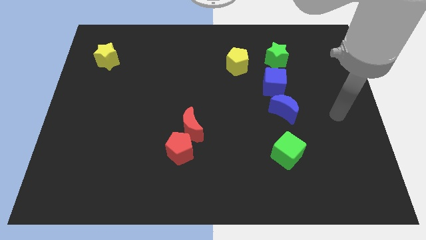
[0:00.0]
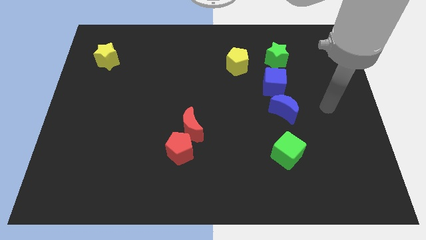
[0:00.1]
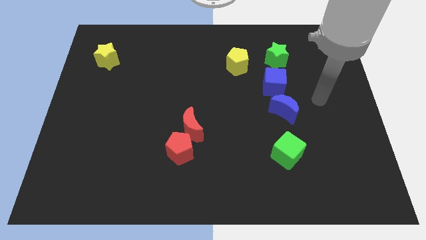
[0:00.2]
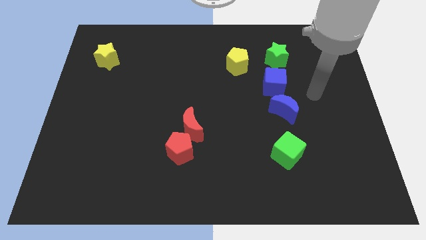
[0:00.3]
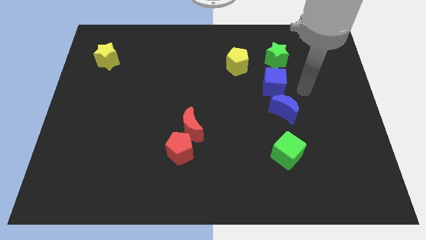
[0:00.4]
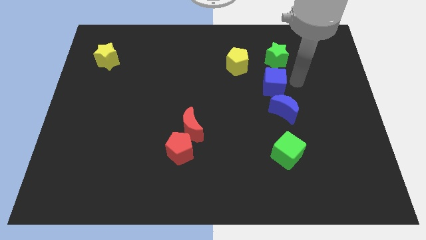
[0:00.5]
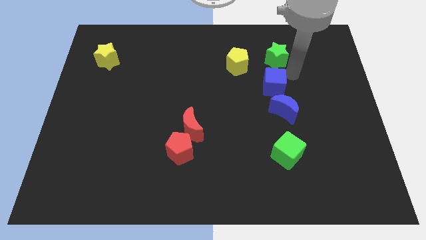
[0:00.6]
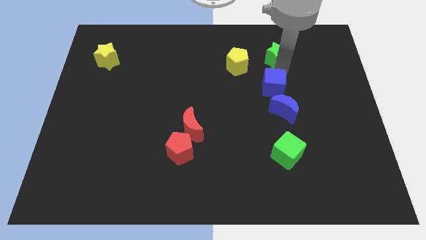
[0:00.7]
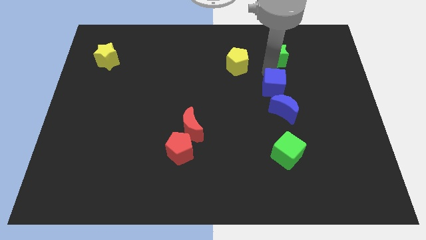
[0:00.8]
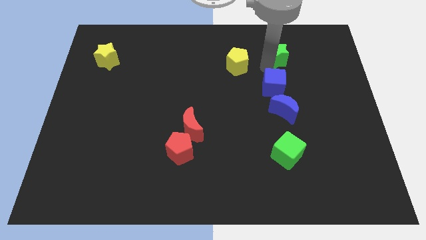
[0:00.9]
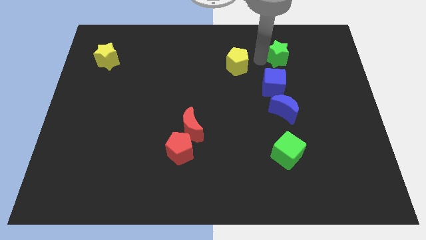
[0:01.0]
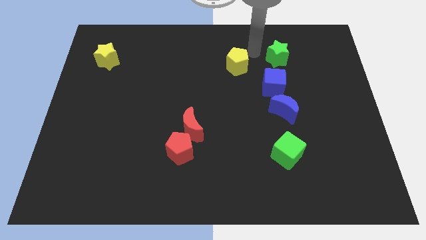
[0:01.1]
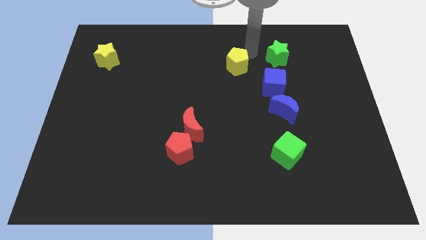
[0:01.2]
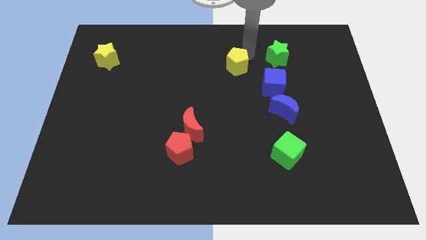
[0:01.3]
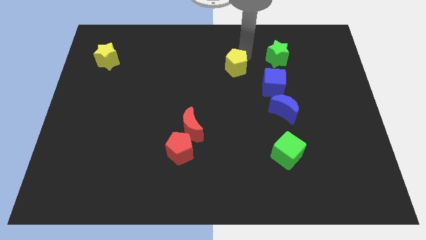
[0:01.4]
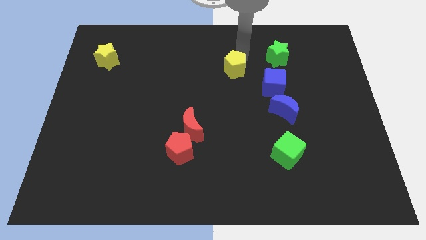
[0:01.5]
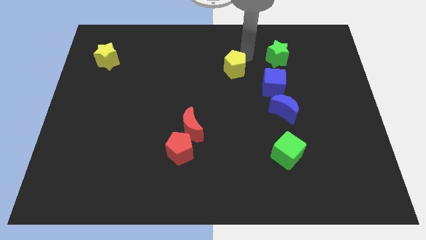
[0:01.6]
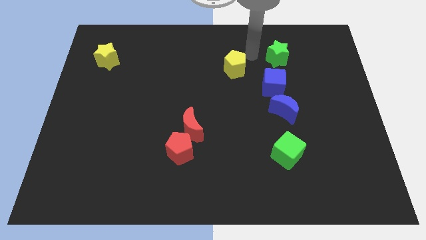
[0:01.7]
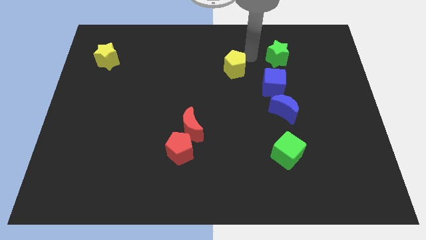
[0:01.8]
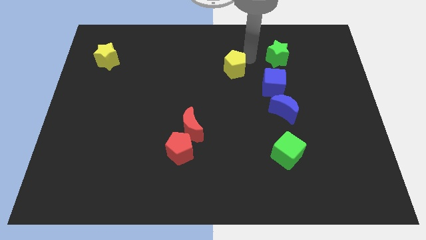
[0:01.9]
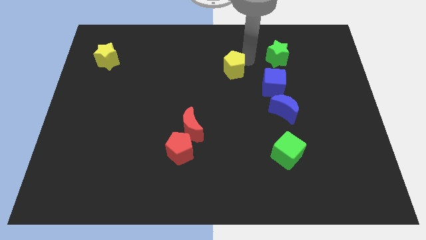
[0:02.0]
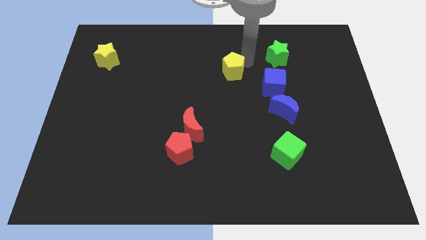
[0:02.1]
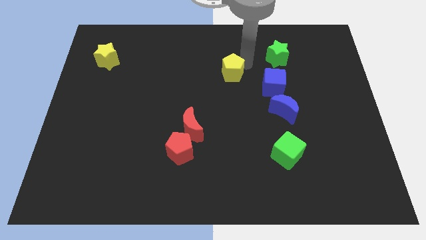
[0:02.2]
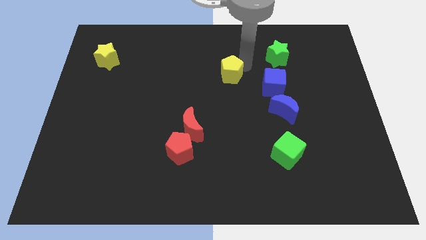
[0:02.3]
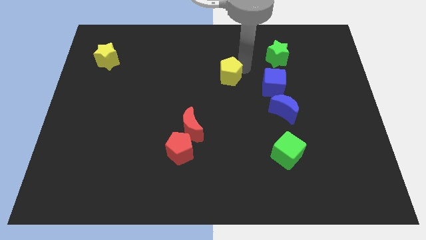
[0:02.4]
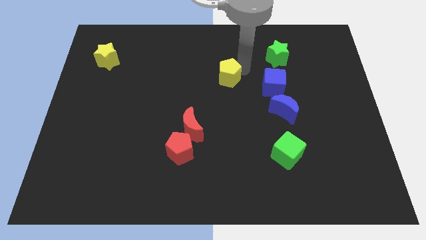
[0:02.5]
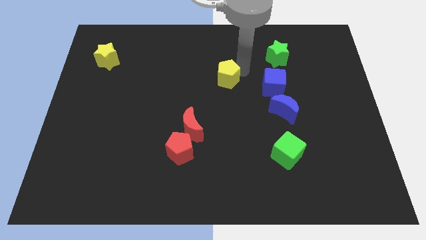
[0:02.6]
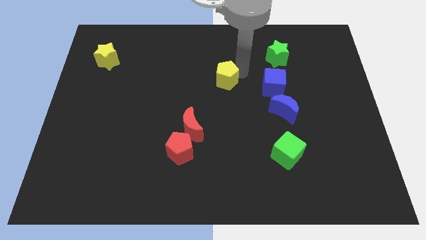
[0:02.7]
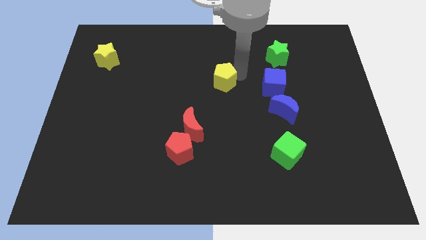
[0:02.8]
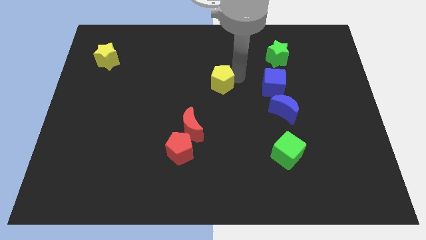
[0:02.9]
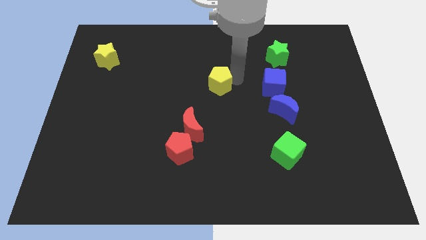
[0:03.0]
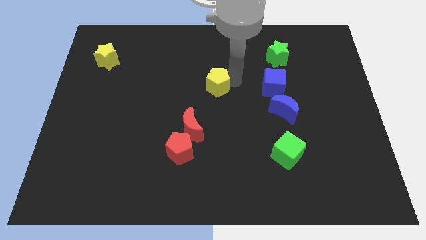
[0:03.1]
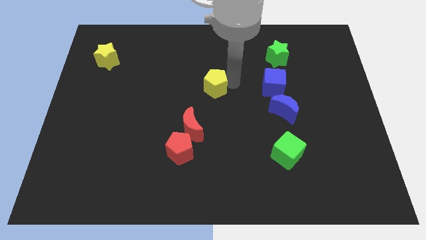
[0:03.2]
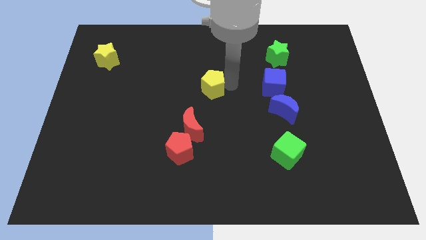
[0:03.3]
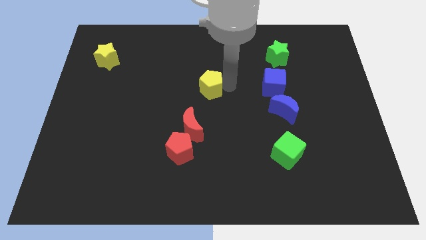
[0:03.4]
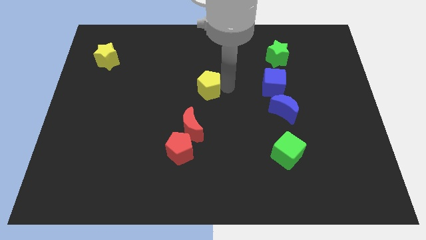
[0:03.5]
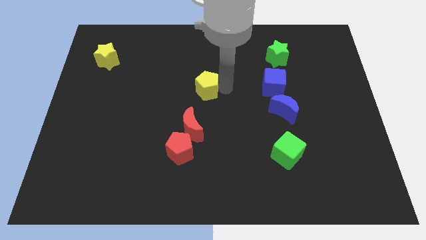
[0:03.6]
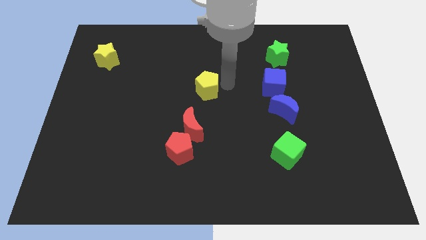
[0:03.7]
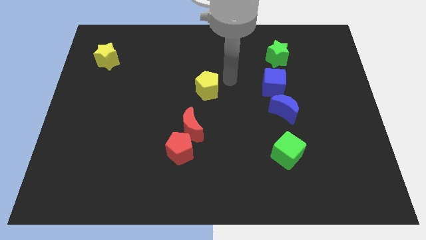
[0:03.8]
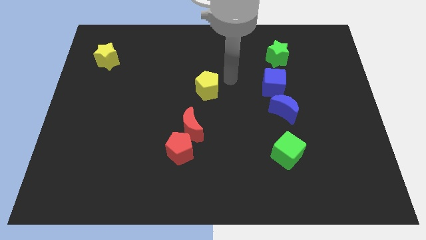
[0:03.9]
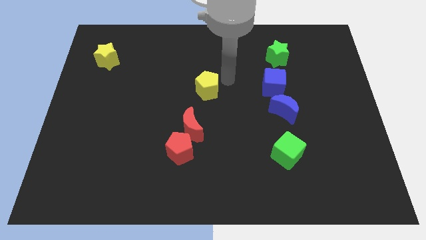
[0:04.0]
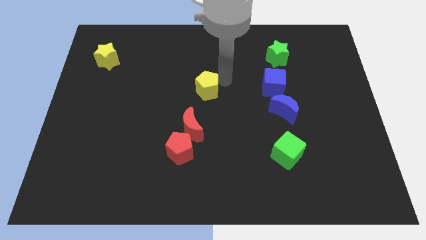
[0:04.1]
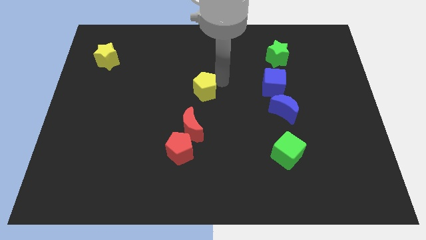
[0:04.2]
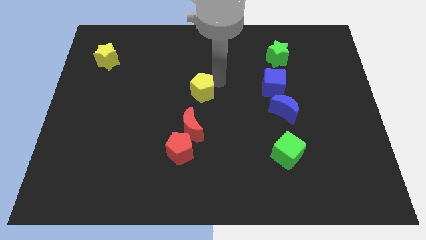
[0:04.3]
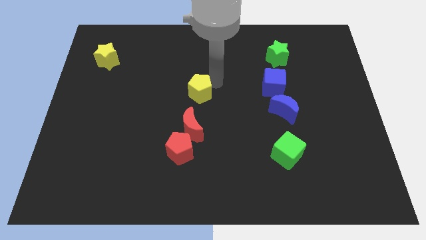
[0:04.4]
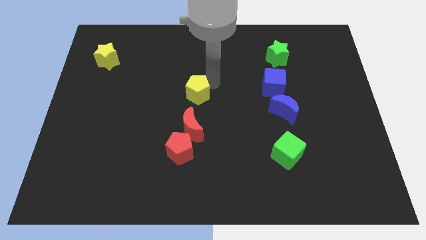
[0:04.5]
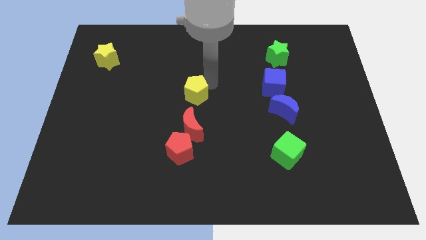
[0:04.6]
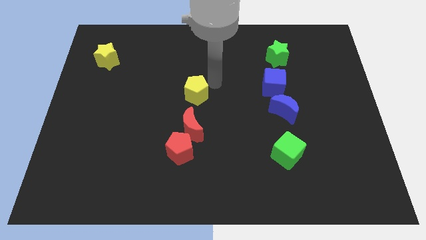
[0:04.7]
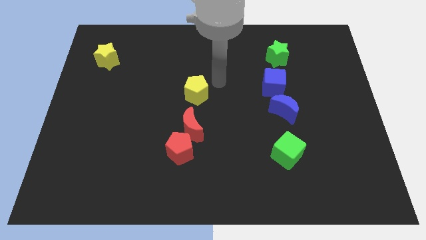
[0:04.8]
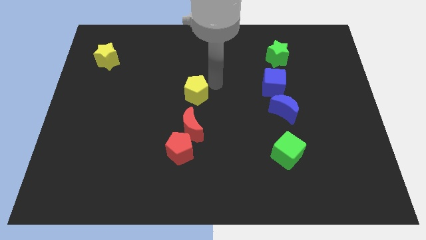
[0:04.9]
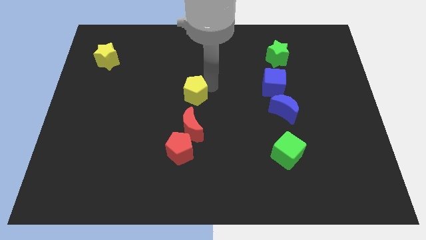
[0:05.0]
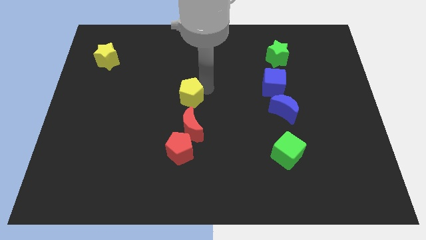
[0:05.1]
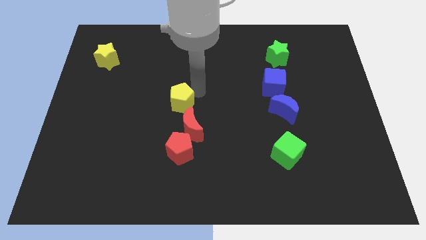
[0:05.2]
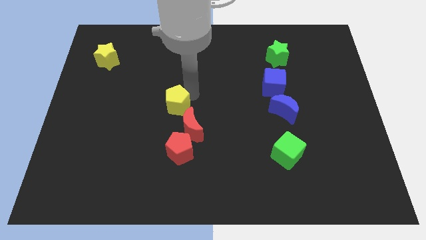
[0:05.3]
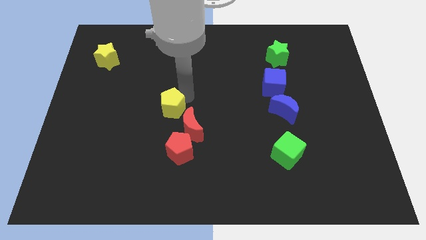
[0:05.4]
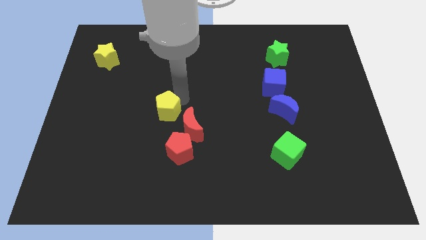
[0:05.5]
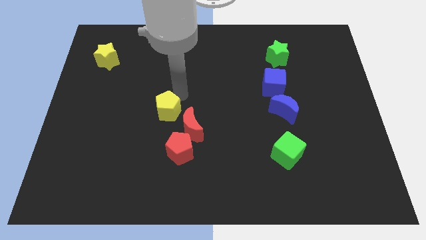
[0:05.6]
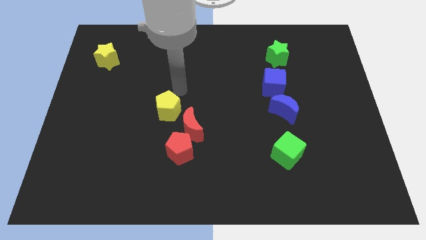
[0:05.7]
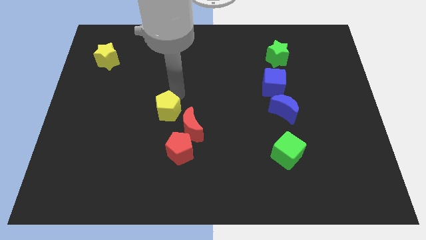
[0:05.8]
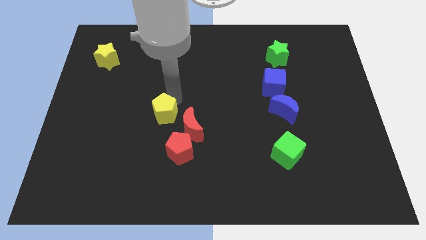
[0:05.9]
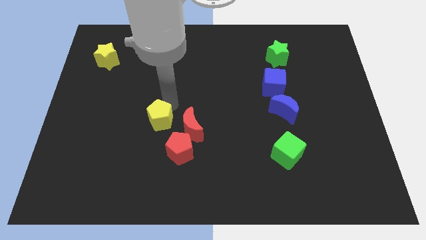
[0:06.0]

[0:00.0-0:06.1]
put the yellow pentagon to the top left side of the red pentagon

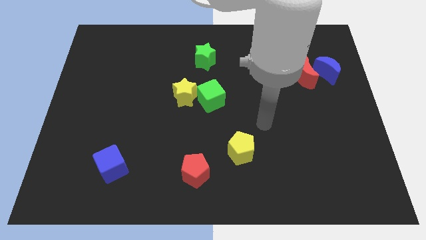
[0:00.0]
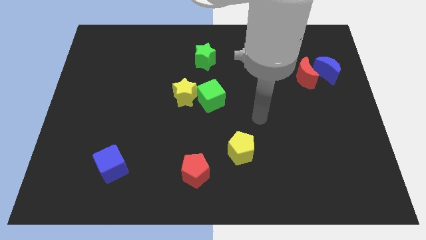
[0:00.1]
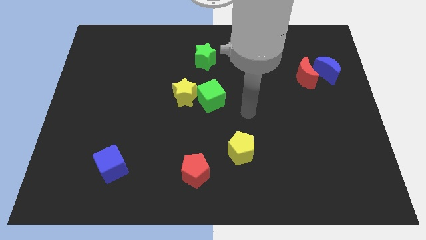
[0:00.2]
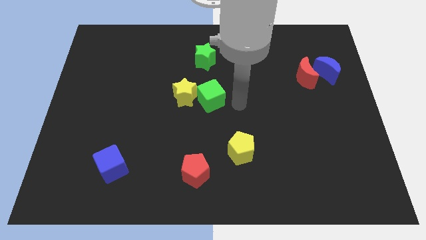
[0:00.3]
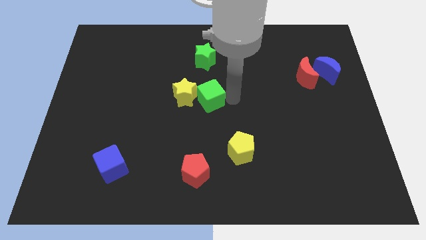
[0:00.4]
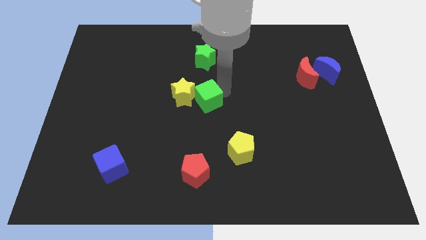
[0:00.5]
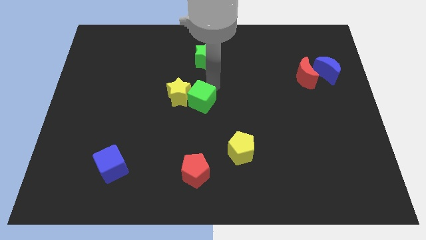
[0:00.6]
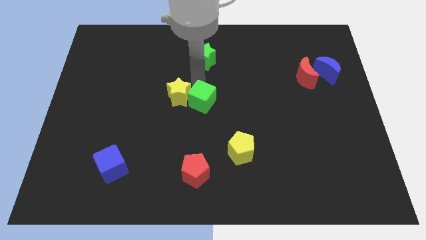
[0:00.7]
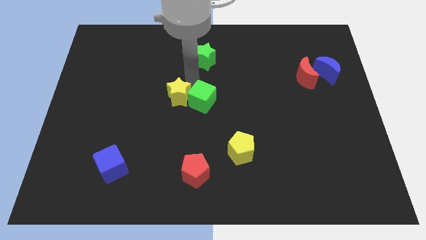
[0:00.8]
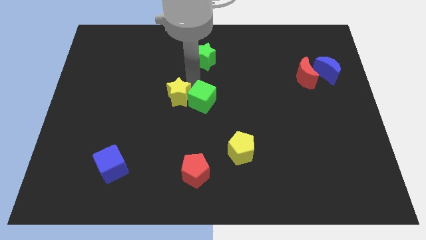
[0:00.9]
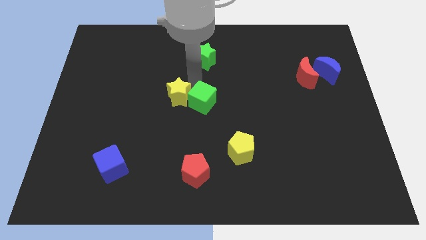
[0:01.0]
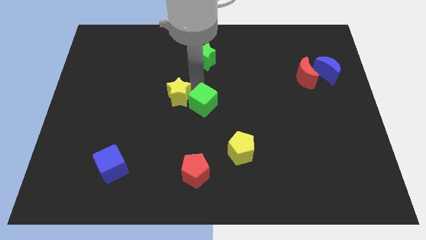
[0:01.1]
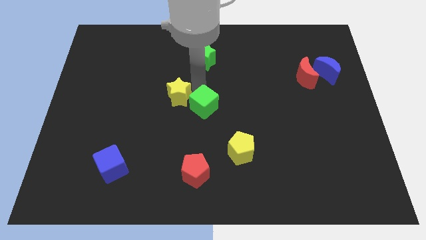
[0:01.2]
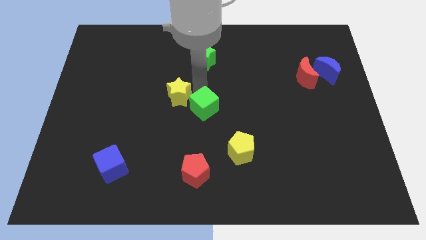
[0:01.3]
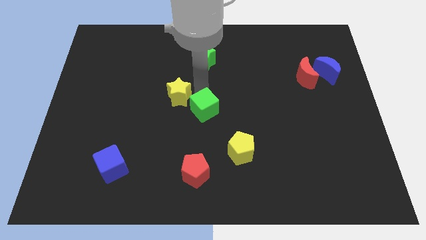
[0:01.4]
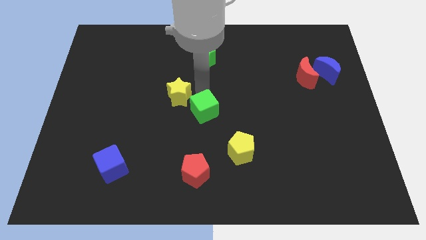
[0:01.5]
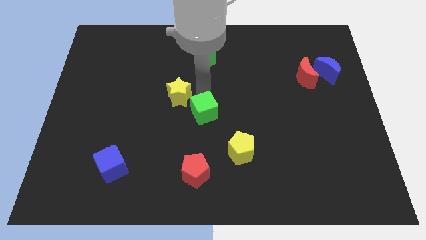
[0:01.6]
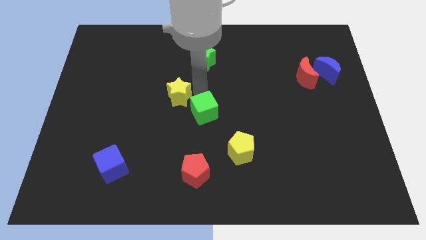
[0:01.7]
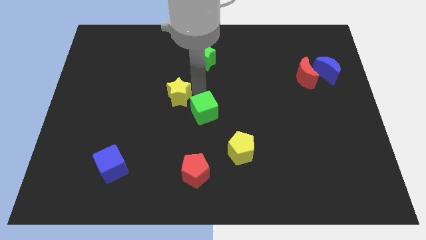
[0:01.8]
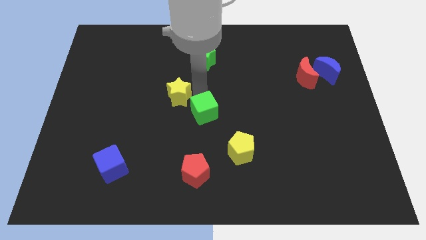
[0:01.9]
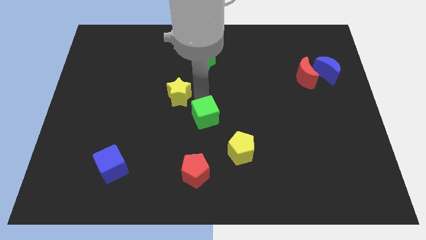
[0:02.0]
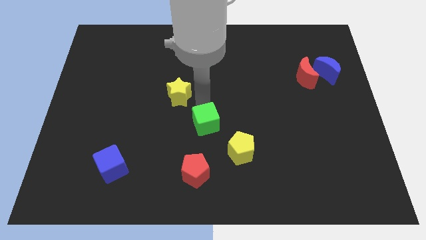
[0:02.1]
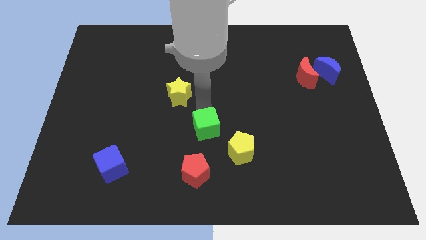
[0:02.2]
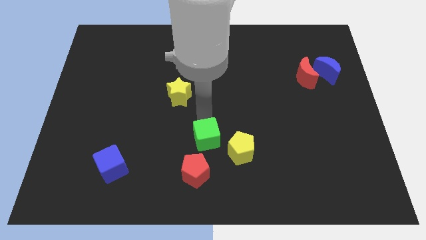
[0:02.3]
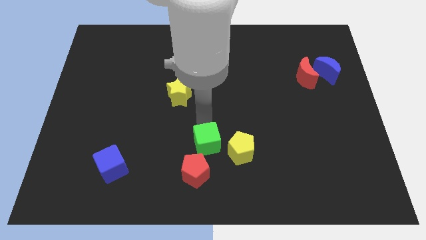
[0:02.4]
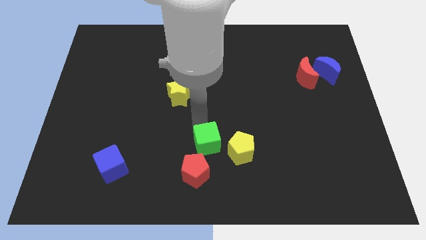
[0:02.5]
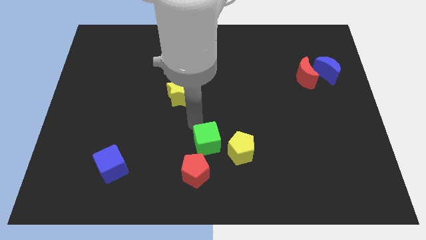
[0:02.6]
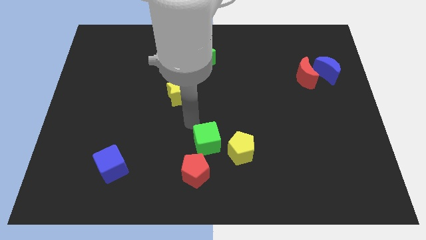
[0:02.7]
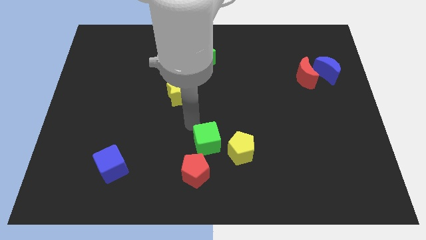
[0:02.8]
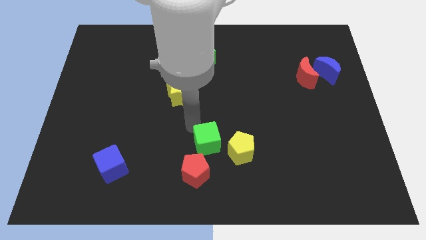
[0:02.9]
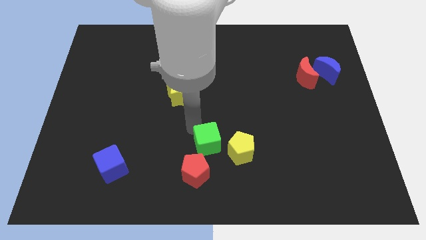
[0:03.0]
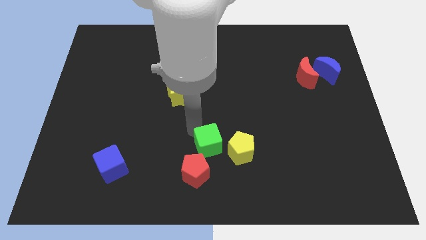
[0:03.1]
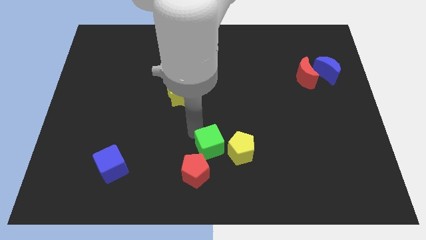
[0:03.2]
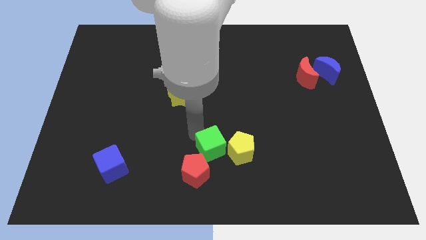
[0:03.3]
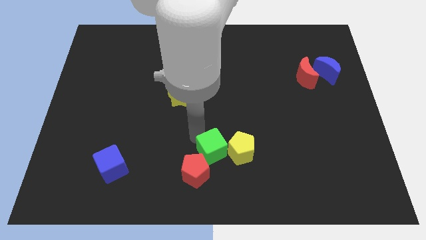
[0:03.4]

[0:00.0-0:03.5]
slide the green cube diagonally down and to the left of the yellow pentagon
